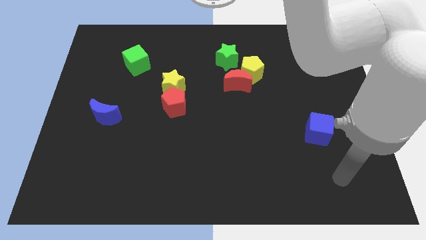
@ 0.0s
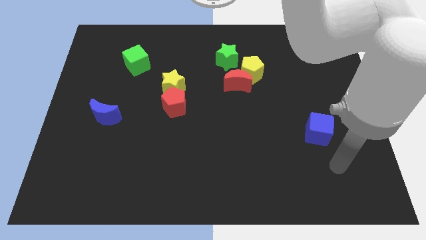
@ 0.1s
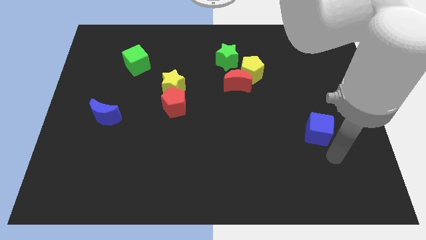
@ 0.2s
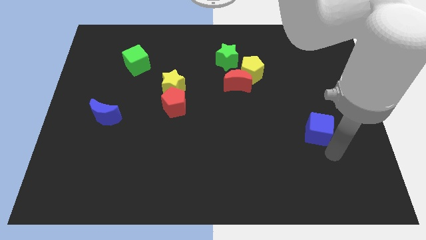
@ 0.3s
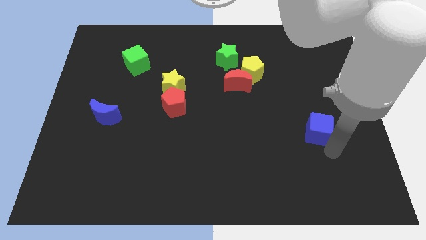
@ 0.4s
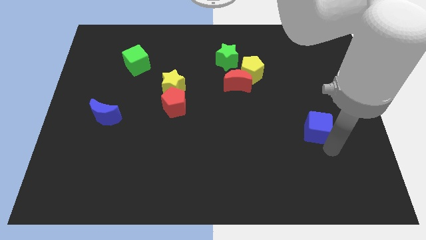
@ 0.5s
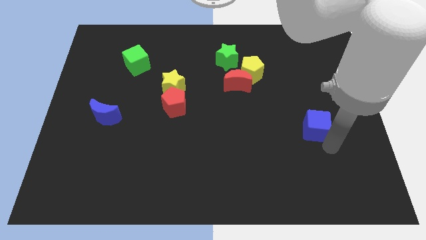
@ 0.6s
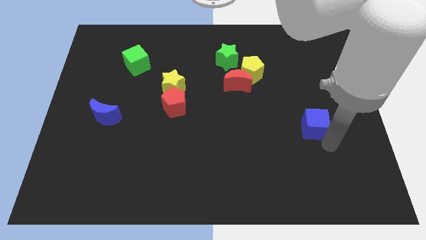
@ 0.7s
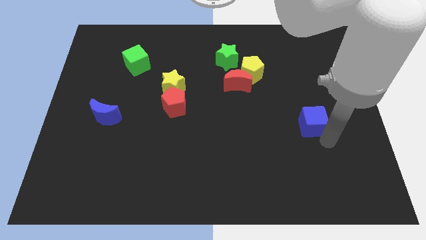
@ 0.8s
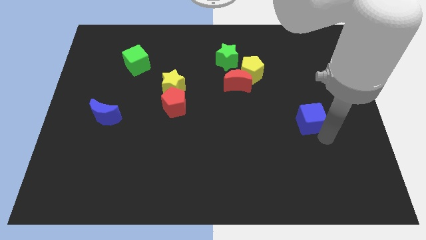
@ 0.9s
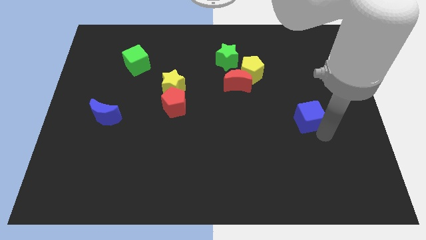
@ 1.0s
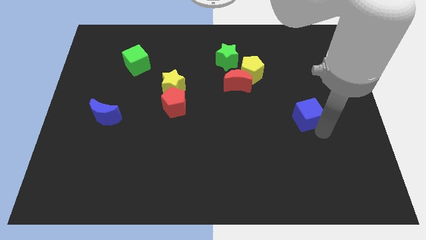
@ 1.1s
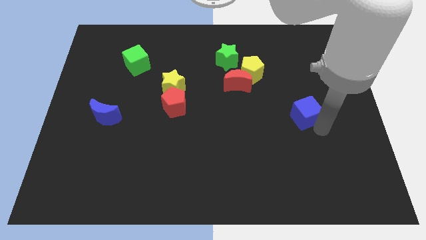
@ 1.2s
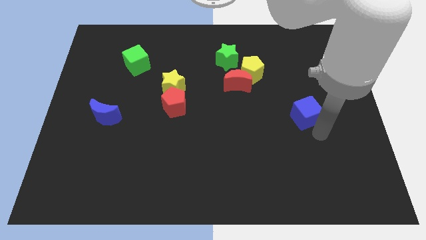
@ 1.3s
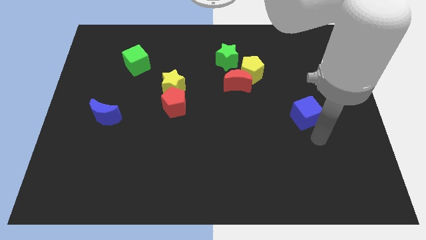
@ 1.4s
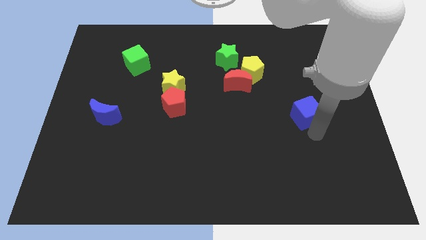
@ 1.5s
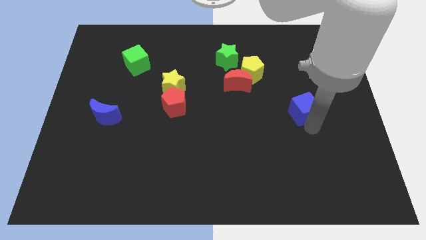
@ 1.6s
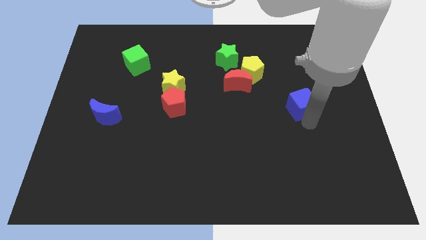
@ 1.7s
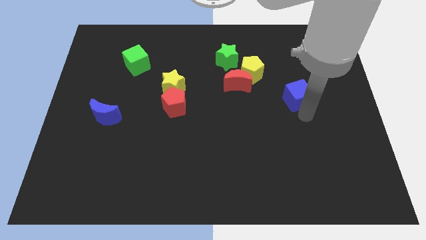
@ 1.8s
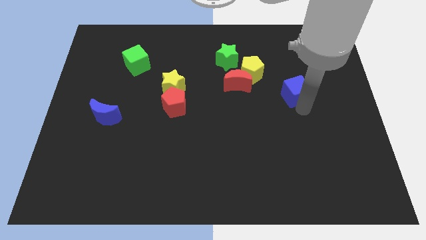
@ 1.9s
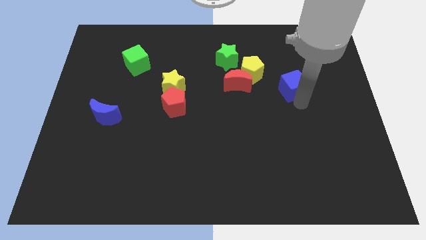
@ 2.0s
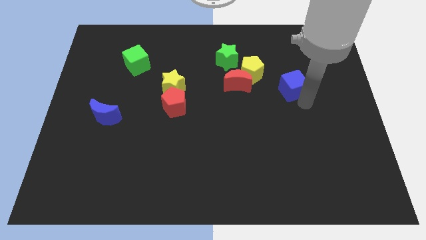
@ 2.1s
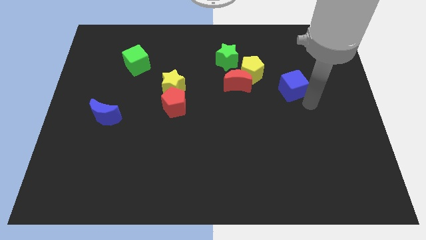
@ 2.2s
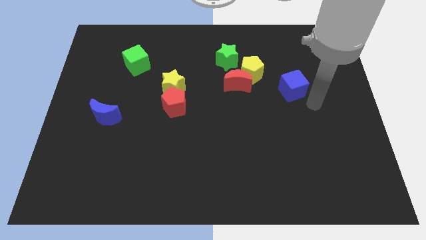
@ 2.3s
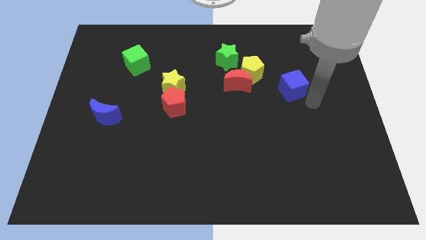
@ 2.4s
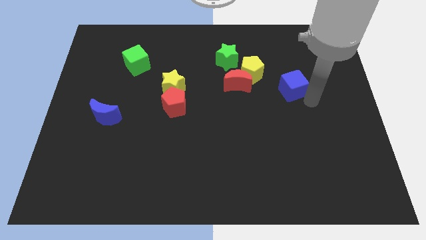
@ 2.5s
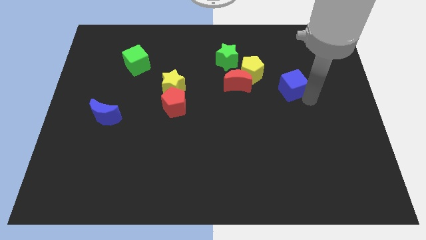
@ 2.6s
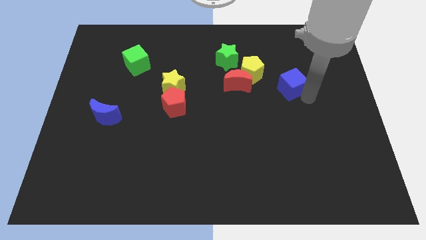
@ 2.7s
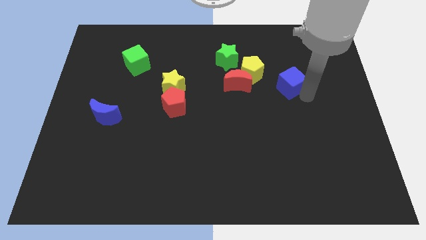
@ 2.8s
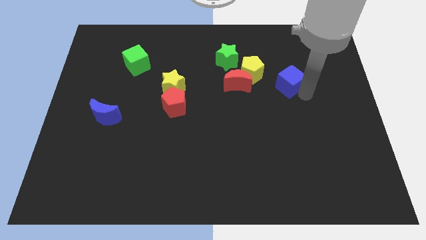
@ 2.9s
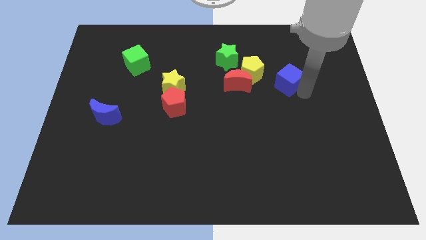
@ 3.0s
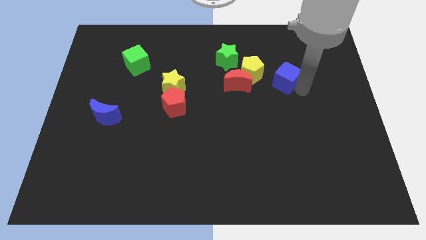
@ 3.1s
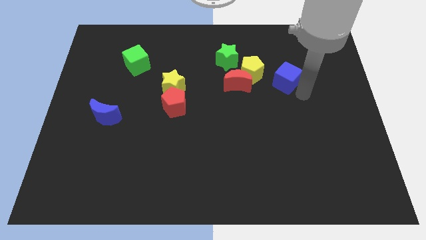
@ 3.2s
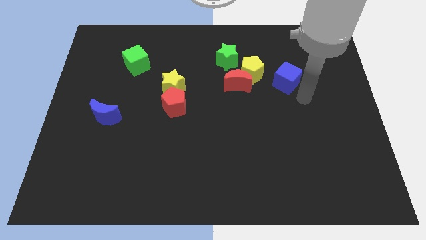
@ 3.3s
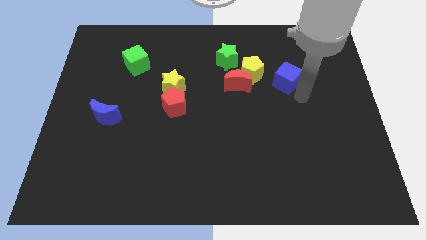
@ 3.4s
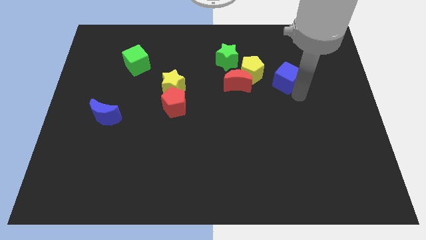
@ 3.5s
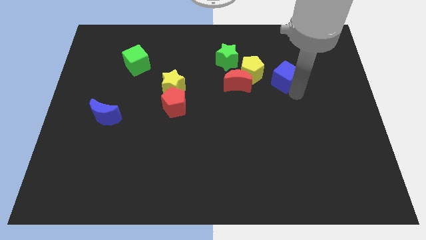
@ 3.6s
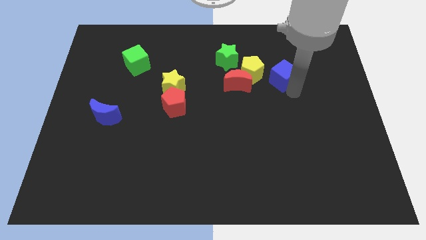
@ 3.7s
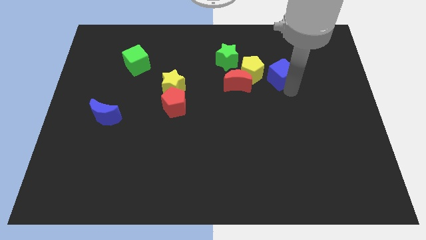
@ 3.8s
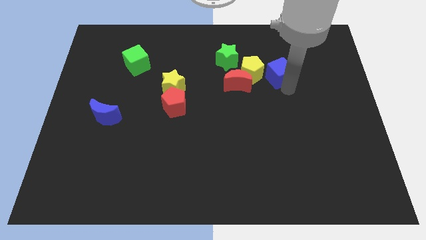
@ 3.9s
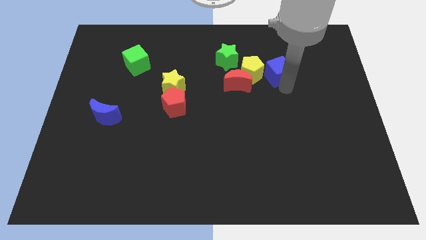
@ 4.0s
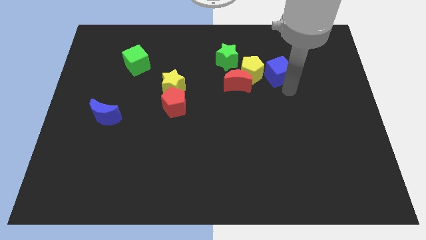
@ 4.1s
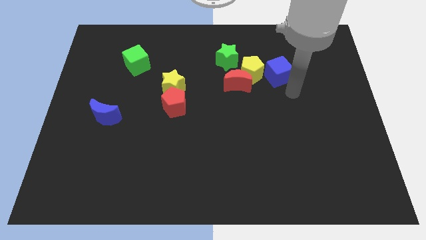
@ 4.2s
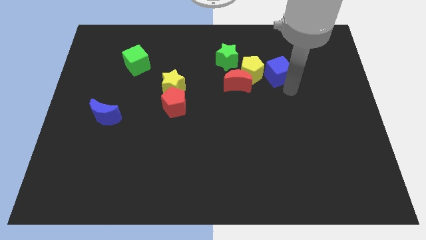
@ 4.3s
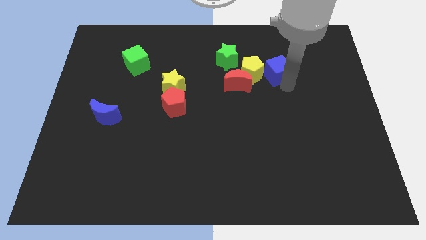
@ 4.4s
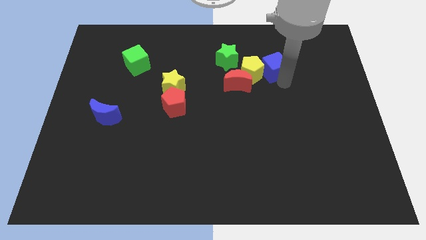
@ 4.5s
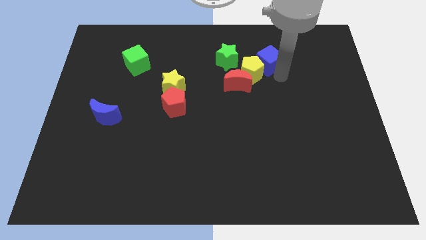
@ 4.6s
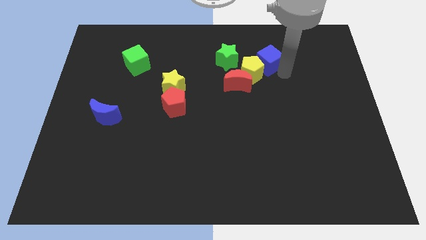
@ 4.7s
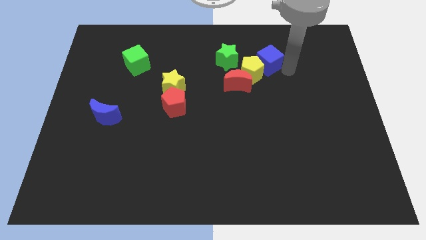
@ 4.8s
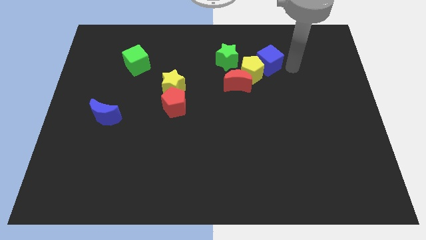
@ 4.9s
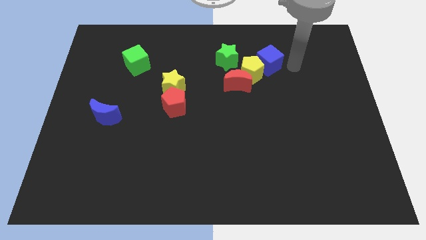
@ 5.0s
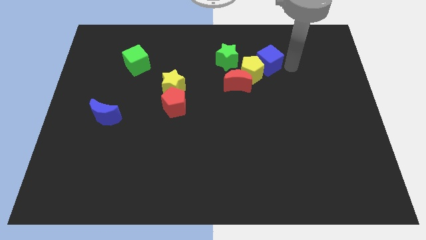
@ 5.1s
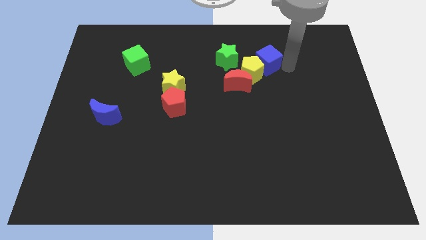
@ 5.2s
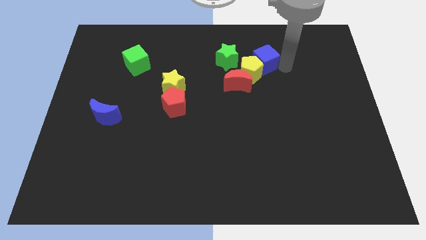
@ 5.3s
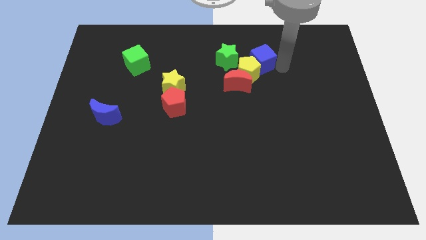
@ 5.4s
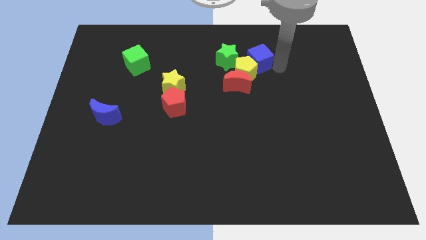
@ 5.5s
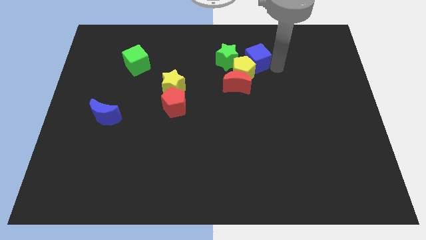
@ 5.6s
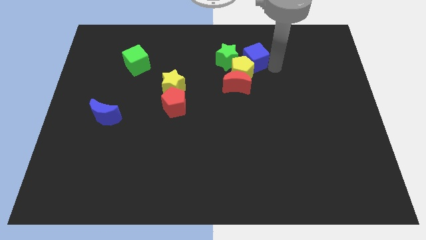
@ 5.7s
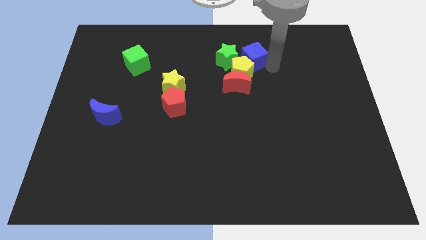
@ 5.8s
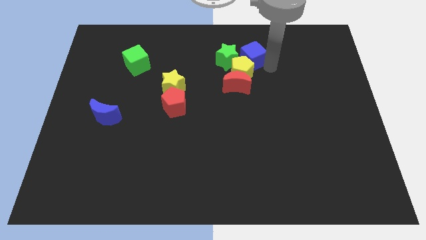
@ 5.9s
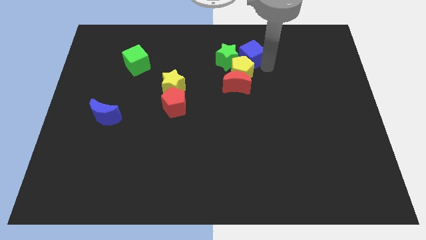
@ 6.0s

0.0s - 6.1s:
move the blue cube next to the green star

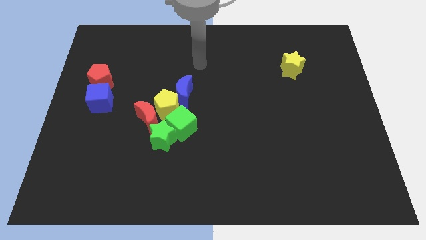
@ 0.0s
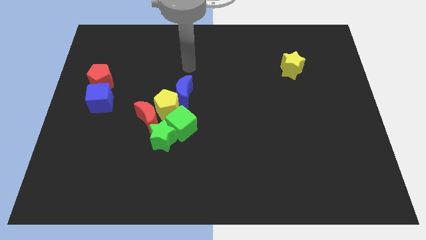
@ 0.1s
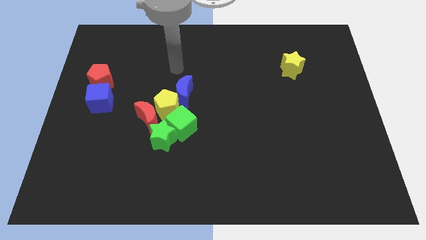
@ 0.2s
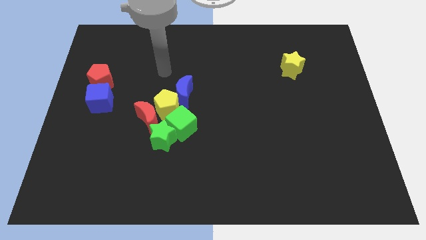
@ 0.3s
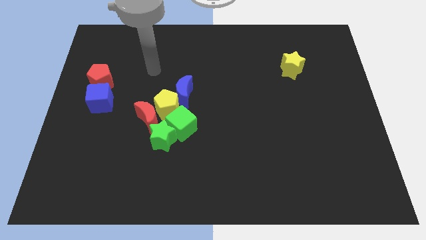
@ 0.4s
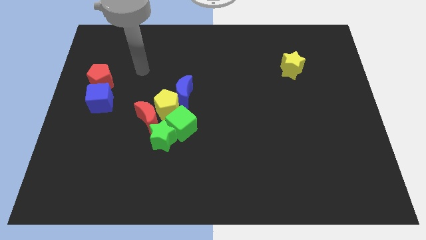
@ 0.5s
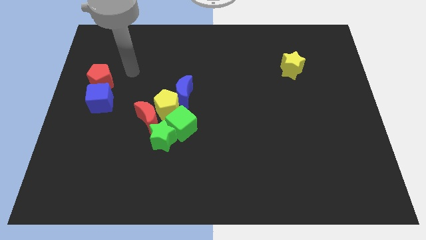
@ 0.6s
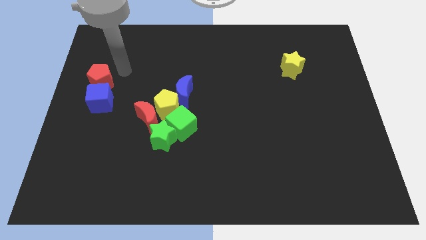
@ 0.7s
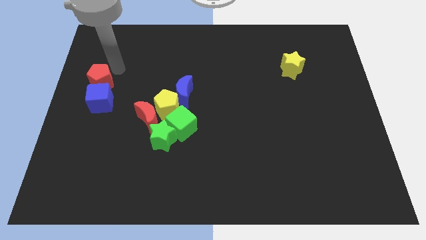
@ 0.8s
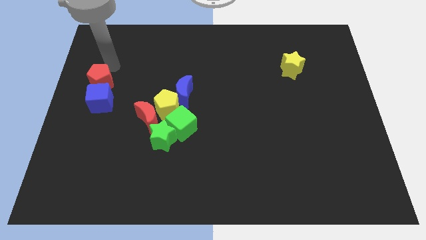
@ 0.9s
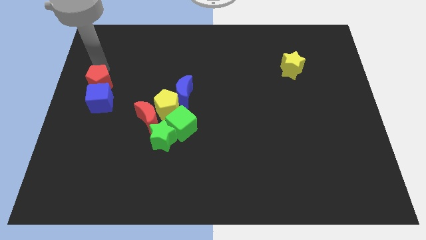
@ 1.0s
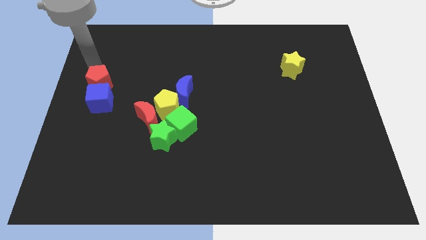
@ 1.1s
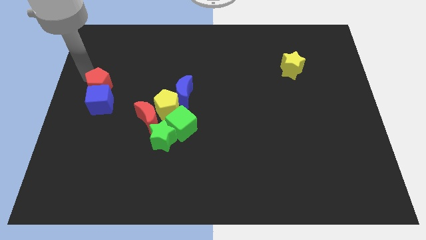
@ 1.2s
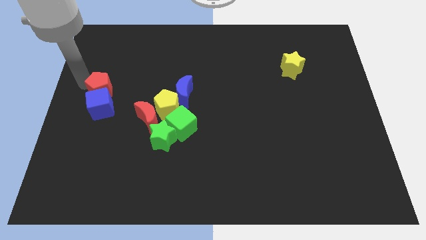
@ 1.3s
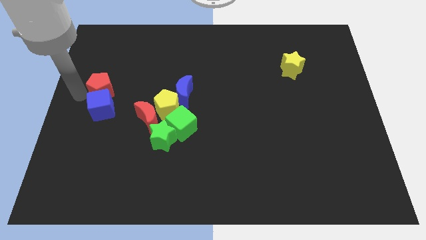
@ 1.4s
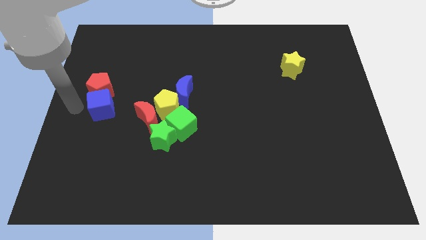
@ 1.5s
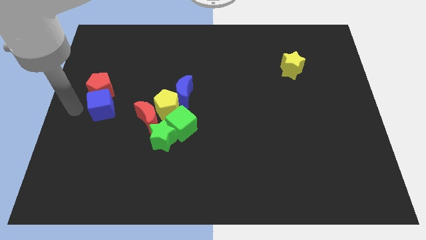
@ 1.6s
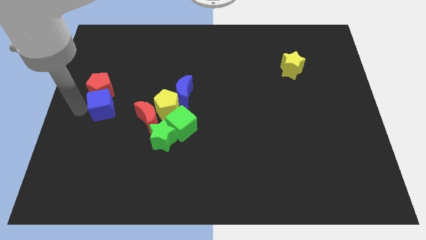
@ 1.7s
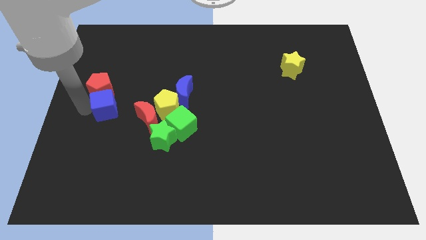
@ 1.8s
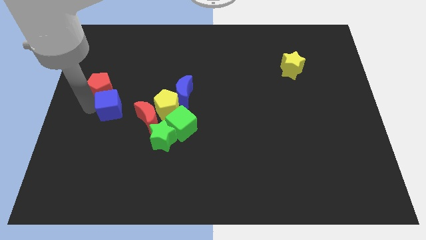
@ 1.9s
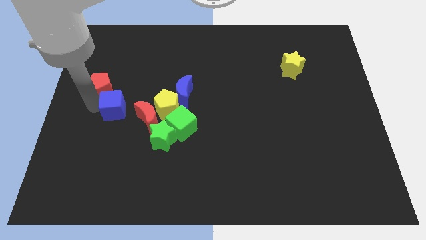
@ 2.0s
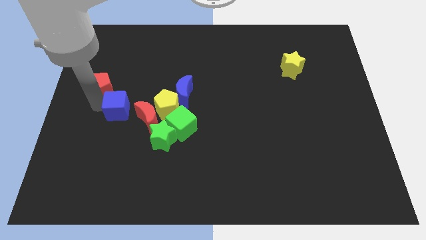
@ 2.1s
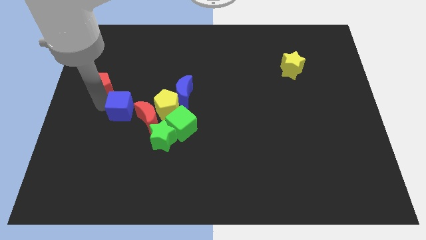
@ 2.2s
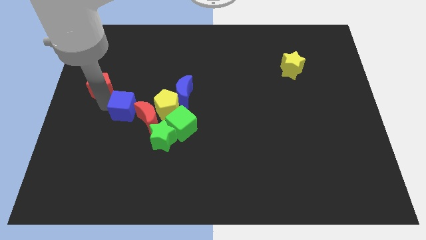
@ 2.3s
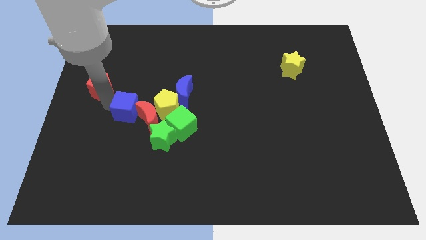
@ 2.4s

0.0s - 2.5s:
push the blue cube close to the red moon
